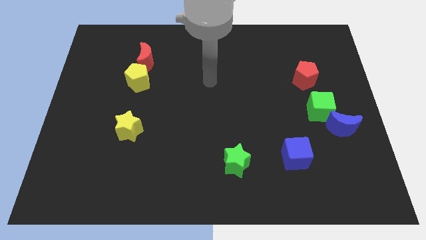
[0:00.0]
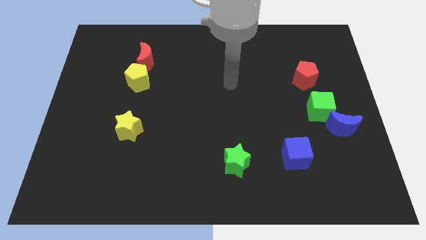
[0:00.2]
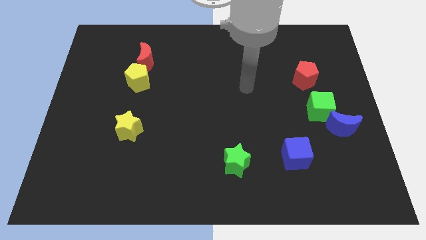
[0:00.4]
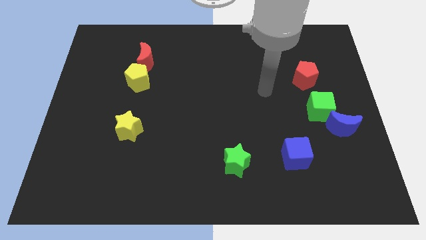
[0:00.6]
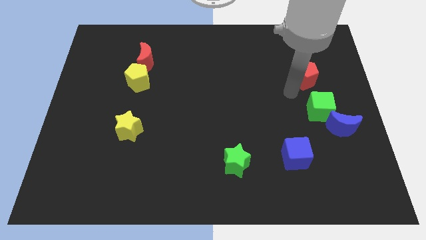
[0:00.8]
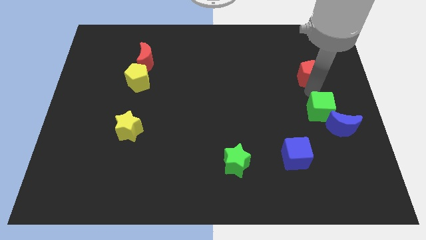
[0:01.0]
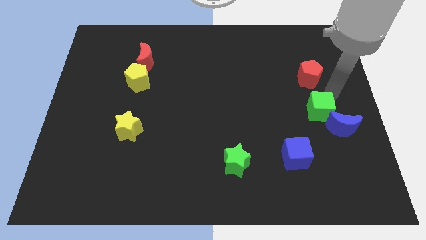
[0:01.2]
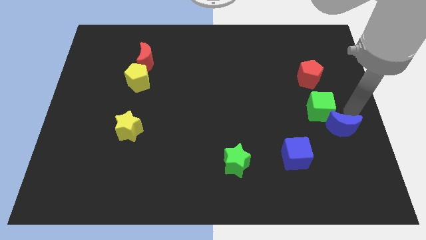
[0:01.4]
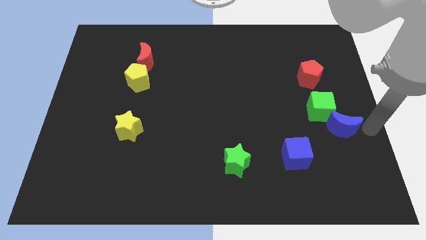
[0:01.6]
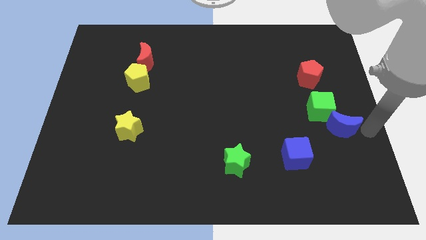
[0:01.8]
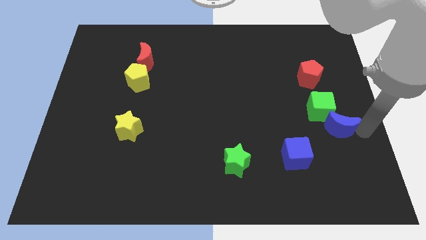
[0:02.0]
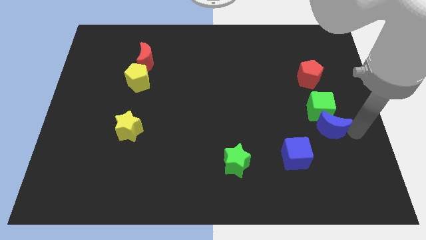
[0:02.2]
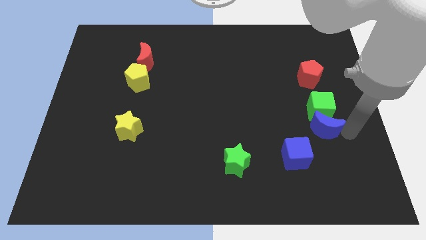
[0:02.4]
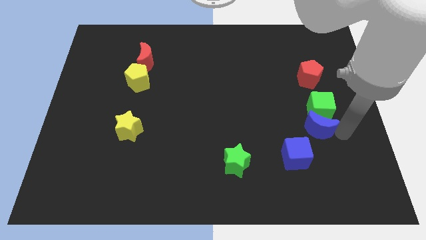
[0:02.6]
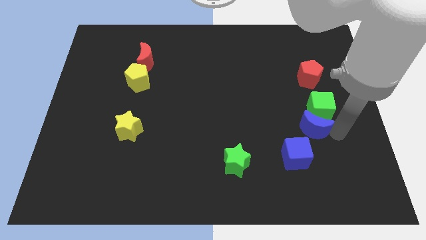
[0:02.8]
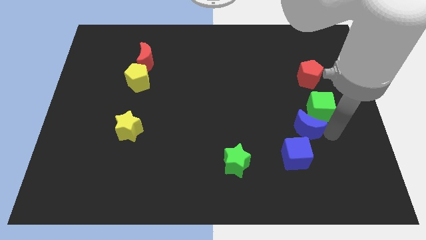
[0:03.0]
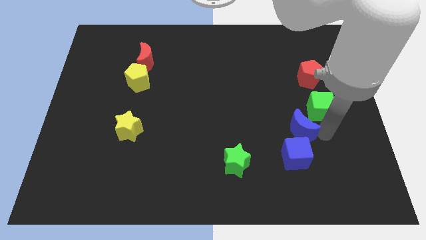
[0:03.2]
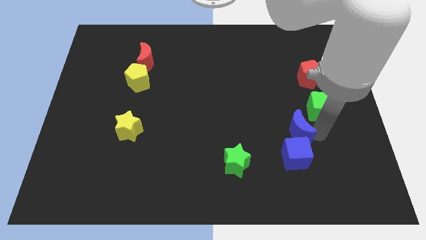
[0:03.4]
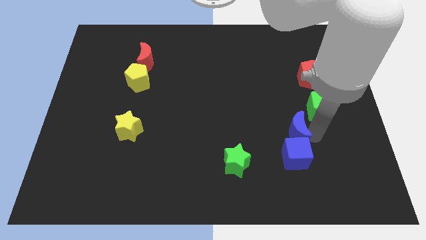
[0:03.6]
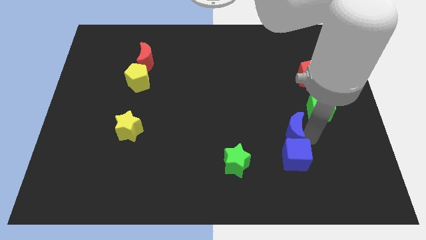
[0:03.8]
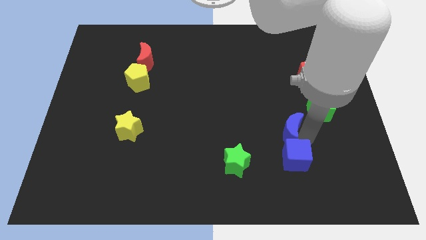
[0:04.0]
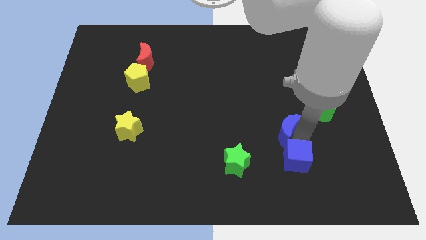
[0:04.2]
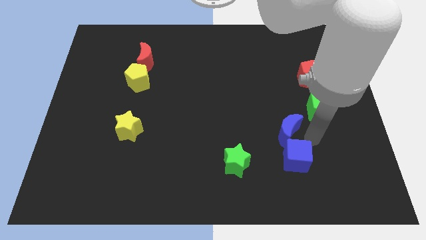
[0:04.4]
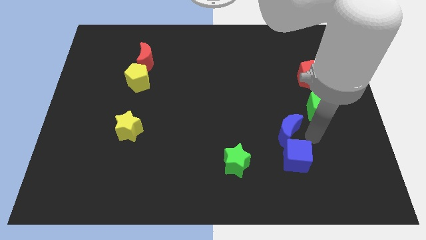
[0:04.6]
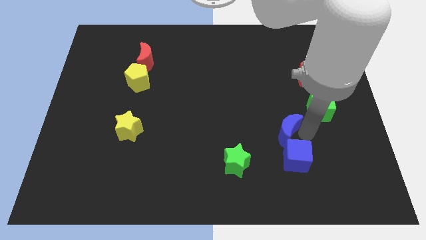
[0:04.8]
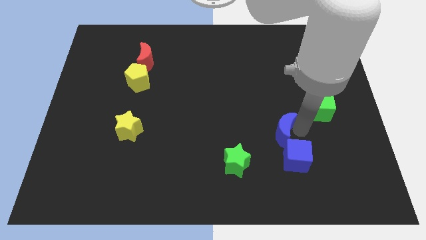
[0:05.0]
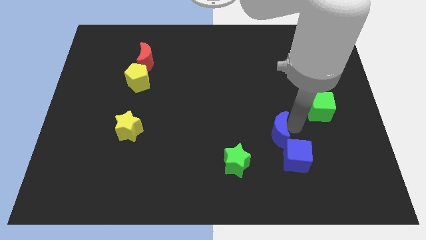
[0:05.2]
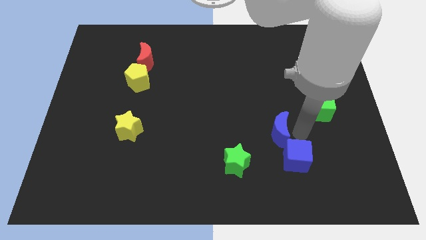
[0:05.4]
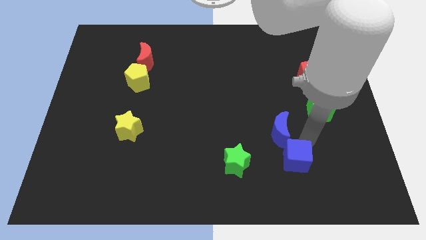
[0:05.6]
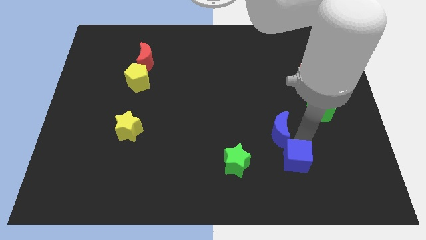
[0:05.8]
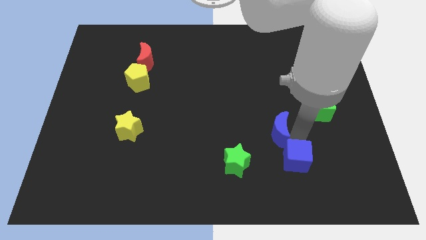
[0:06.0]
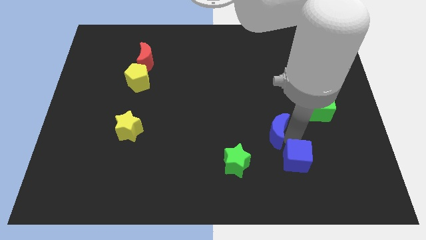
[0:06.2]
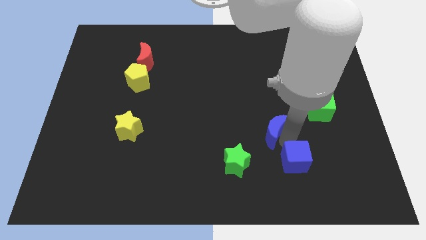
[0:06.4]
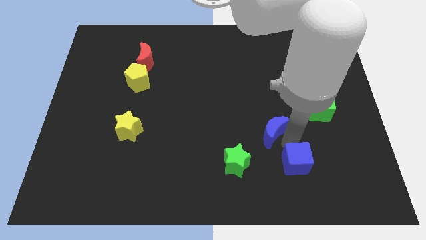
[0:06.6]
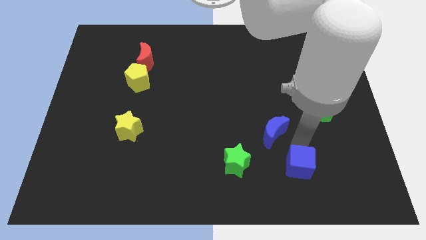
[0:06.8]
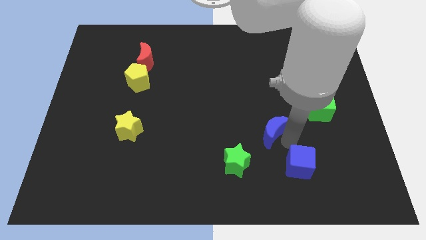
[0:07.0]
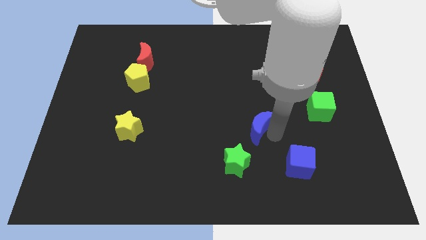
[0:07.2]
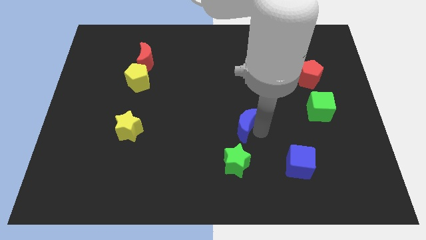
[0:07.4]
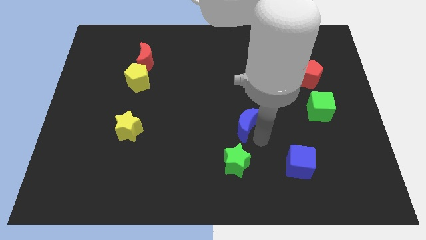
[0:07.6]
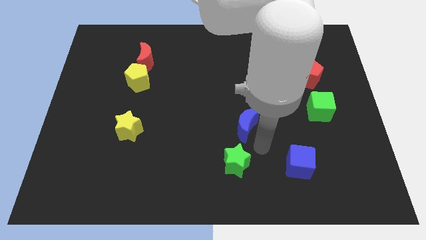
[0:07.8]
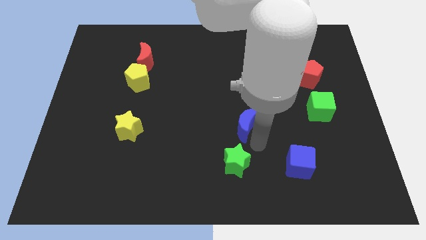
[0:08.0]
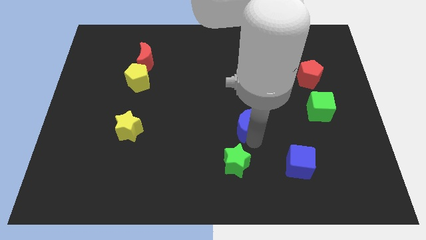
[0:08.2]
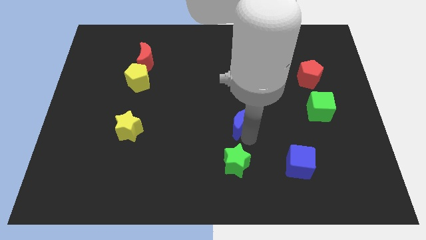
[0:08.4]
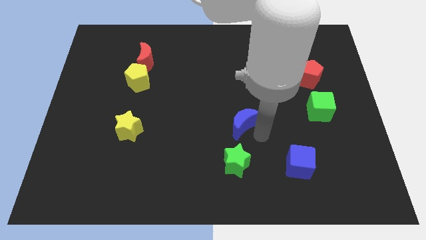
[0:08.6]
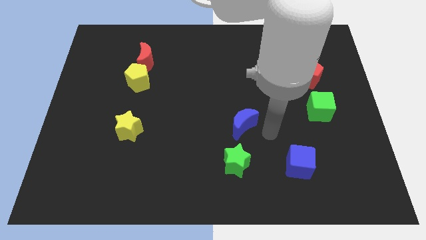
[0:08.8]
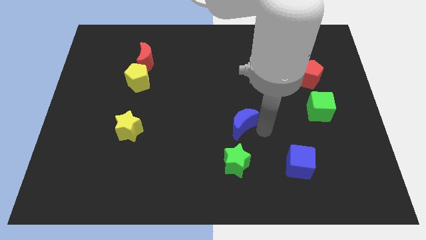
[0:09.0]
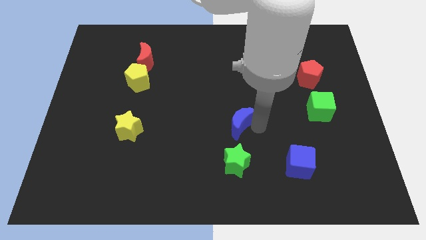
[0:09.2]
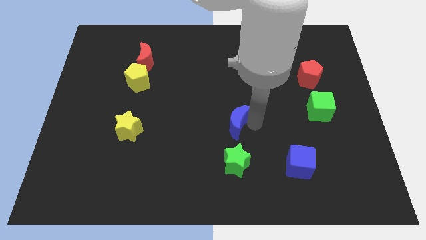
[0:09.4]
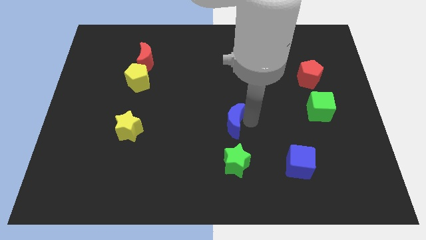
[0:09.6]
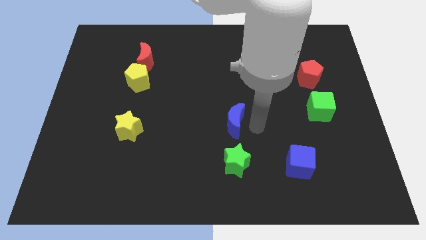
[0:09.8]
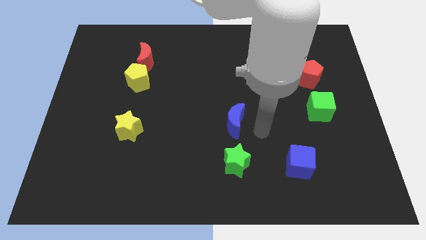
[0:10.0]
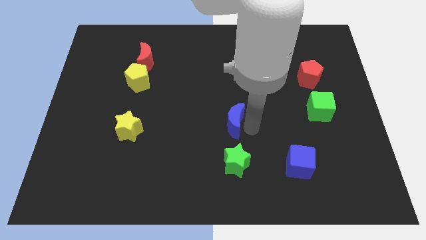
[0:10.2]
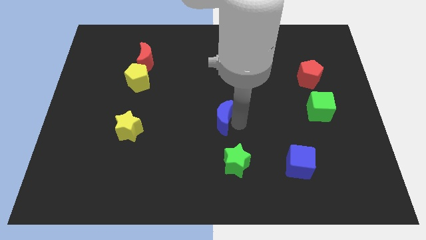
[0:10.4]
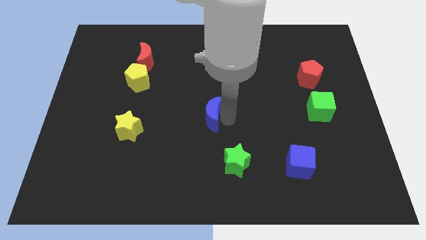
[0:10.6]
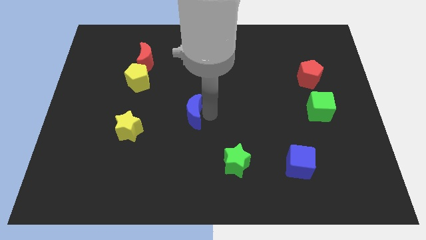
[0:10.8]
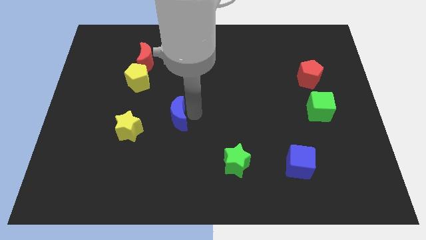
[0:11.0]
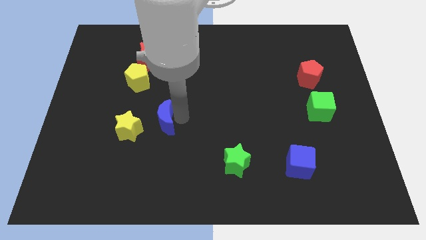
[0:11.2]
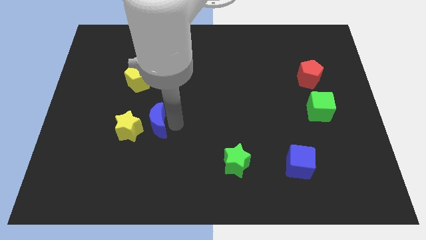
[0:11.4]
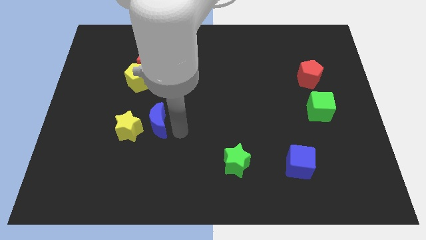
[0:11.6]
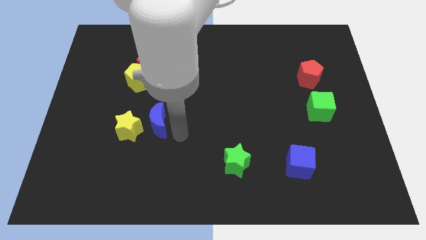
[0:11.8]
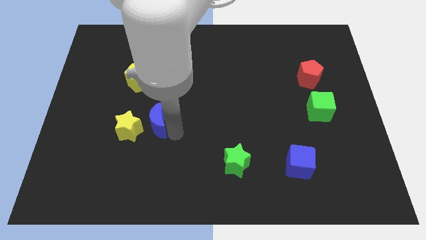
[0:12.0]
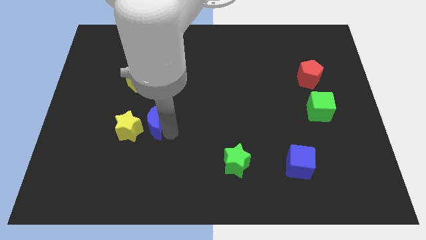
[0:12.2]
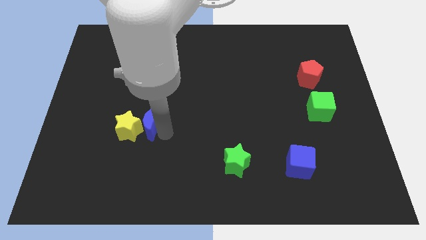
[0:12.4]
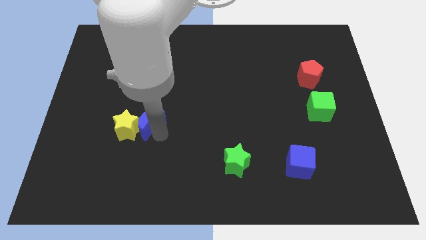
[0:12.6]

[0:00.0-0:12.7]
slide the blue moon to the bottom of the yellow pentagon
